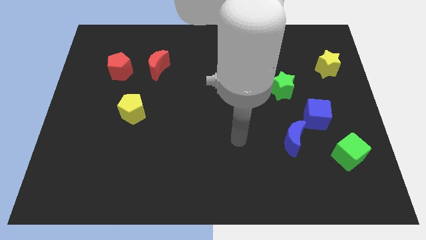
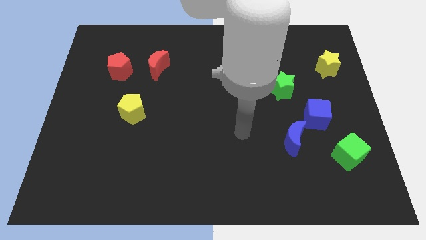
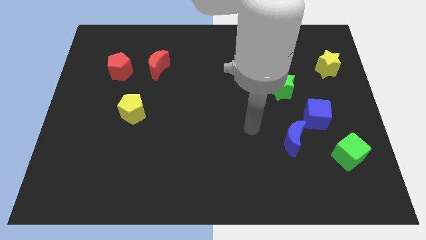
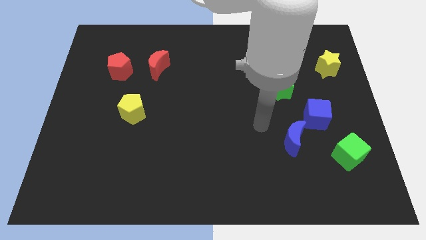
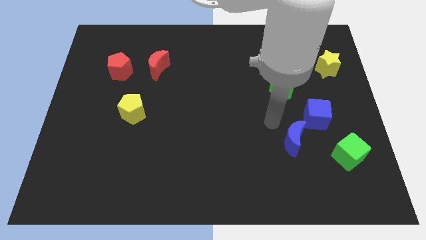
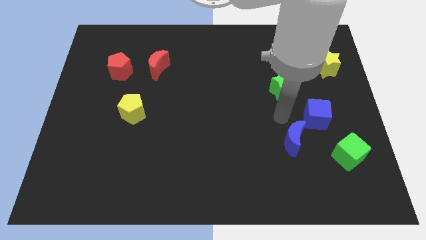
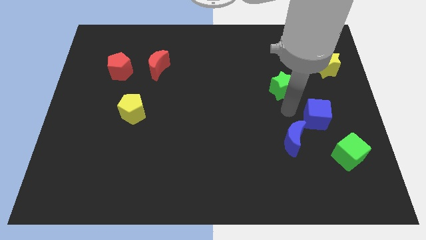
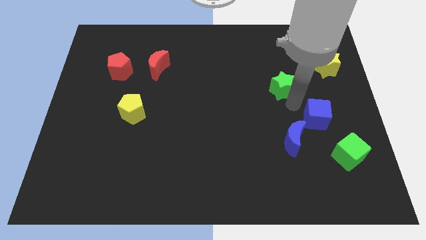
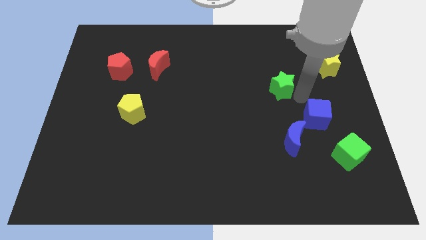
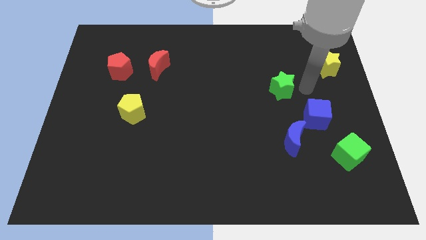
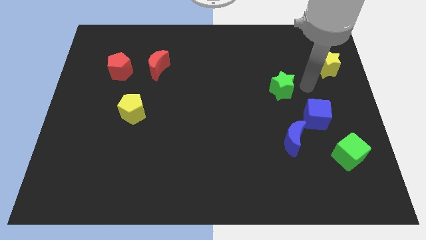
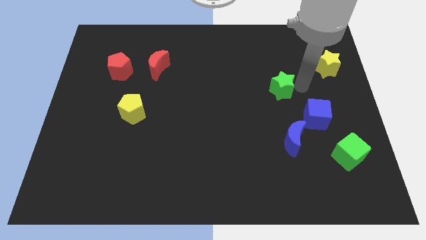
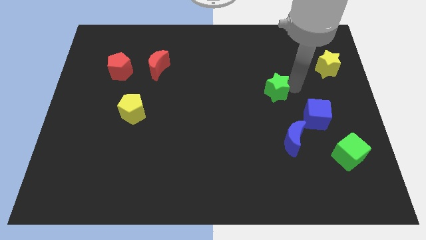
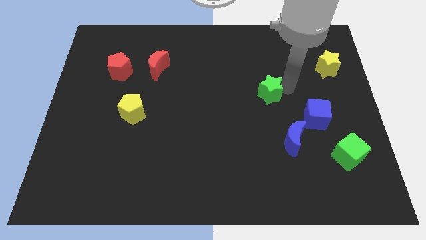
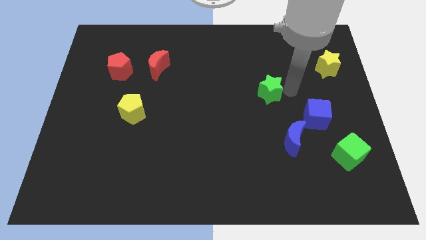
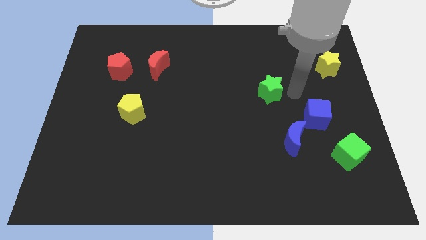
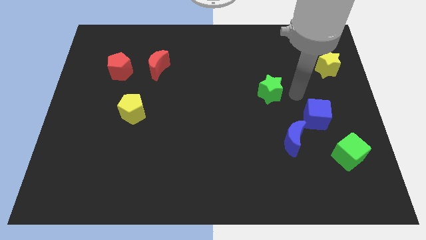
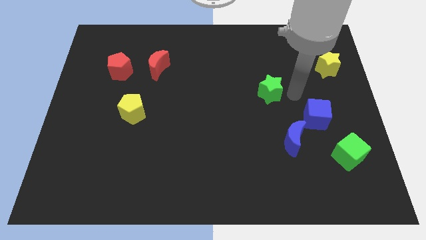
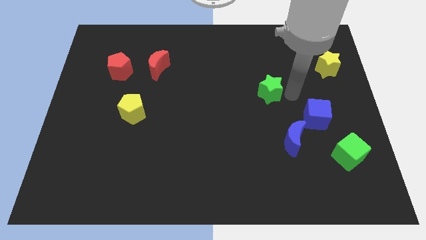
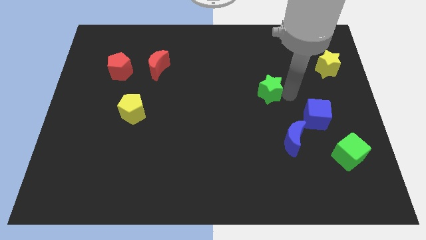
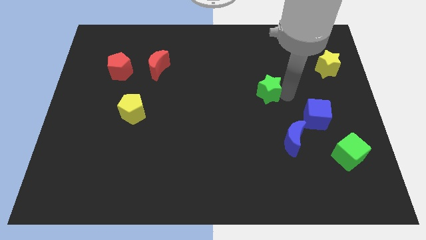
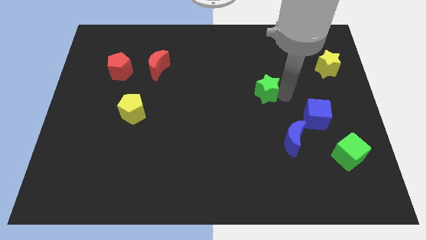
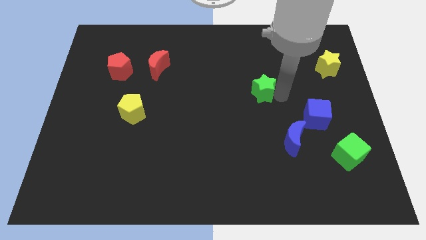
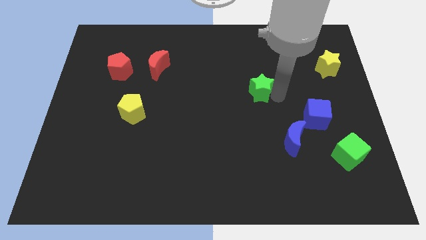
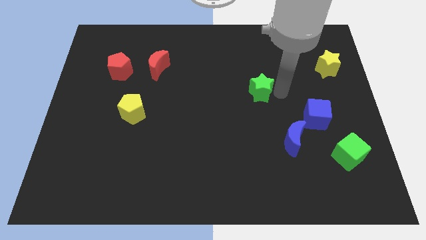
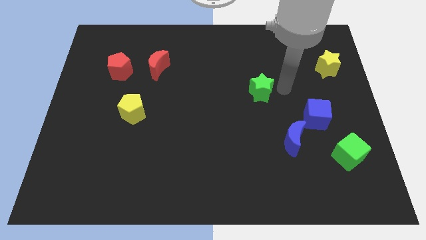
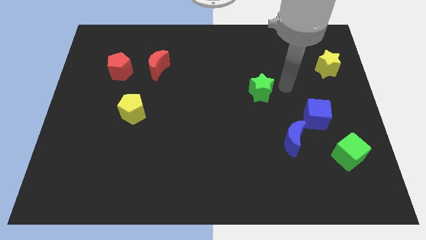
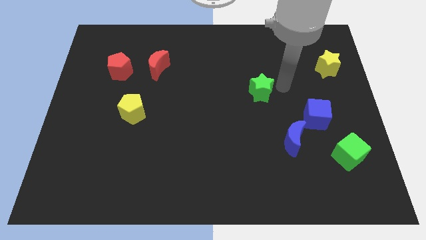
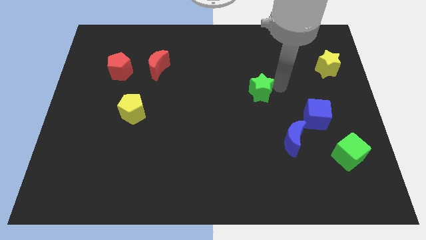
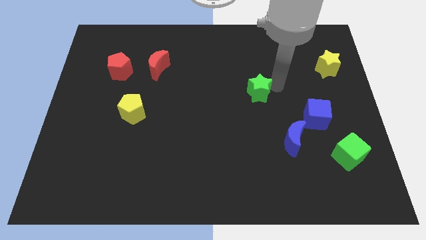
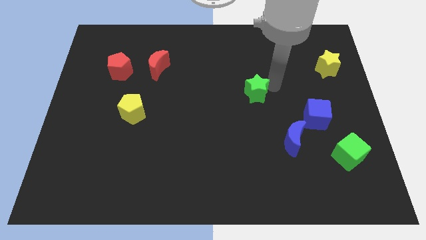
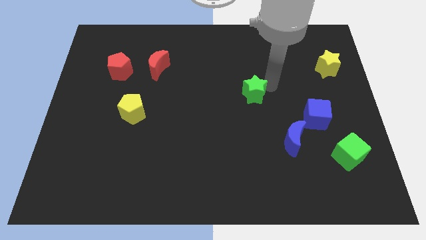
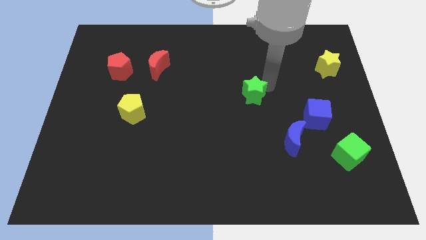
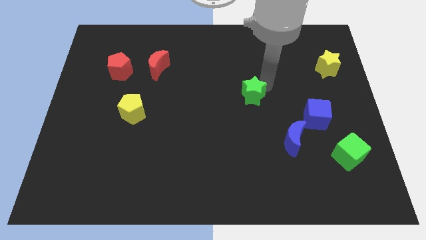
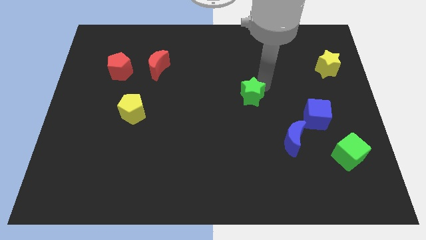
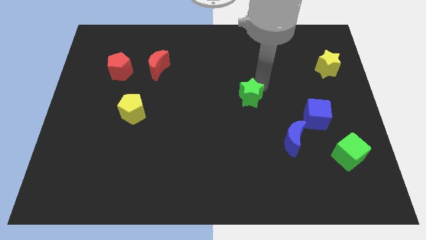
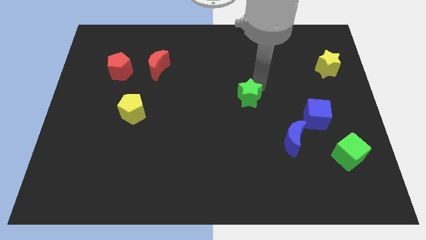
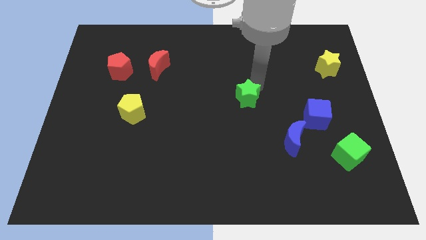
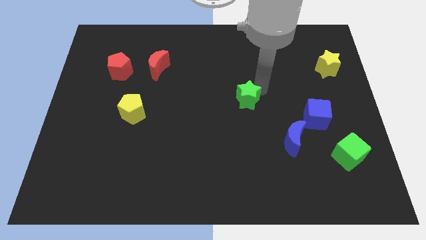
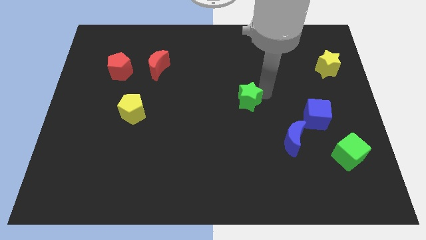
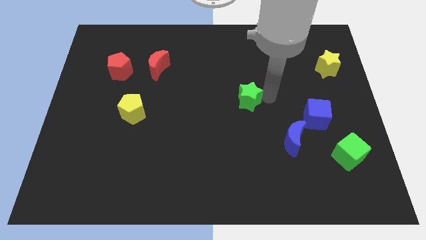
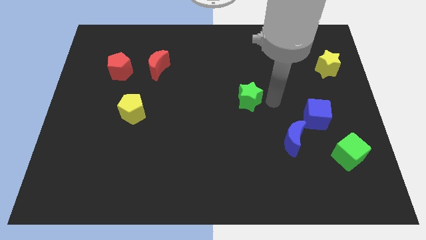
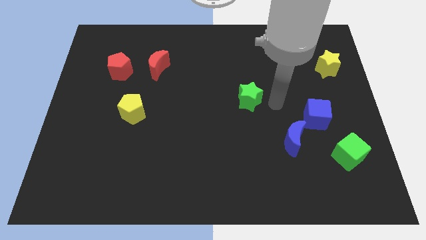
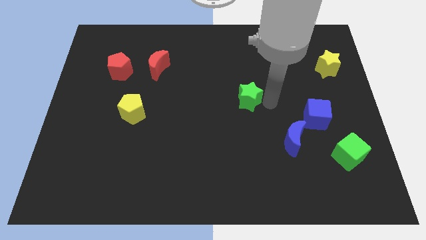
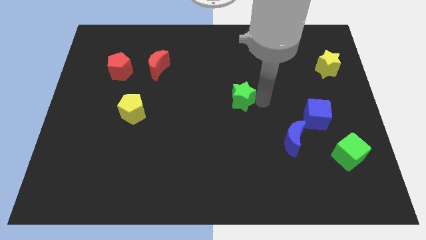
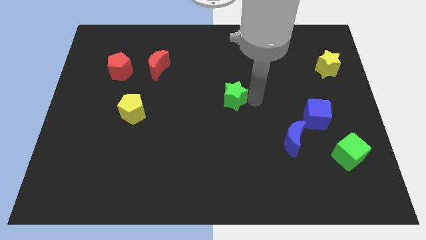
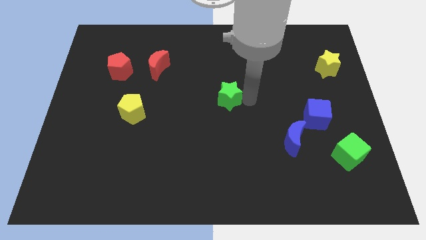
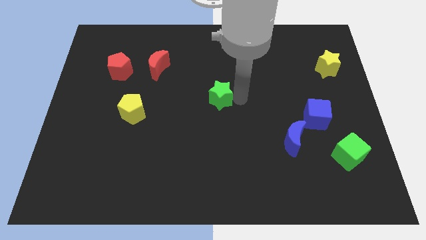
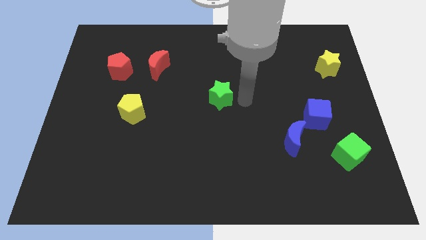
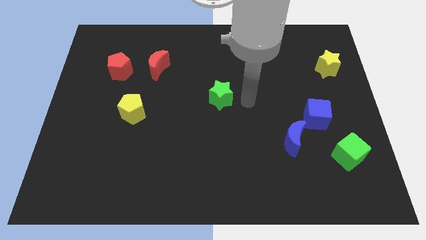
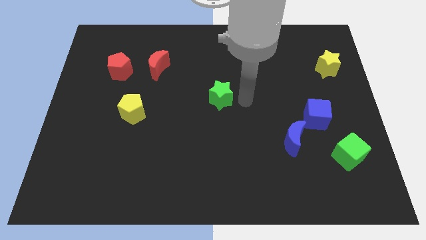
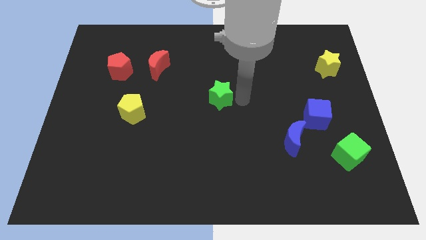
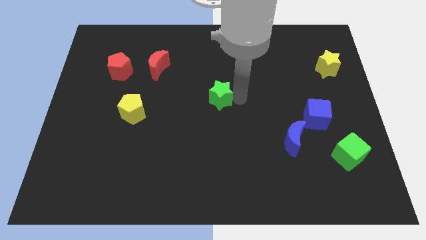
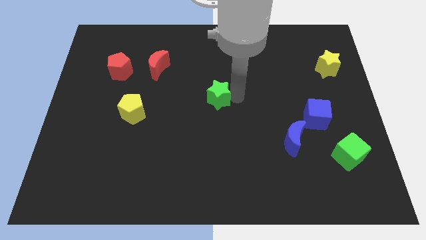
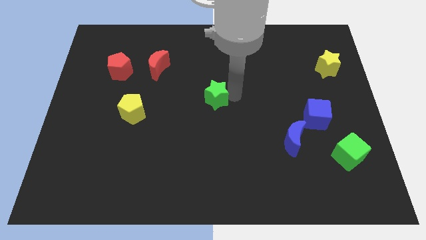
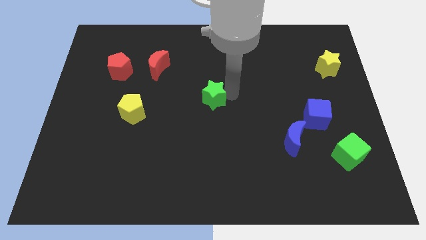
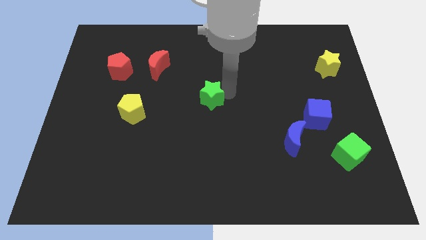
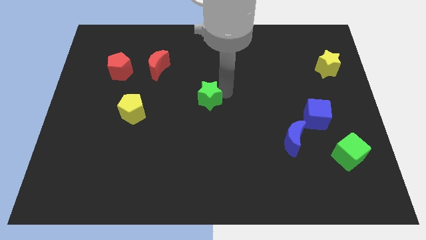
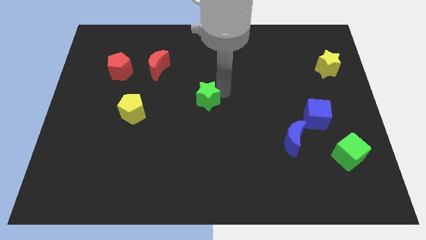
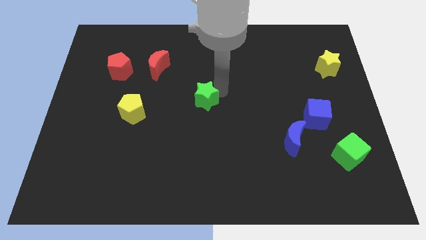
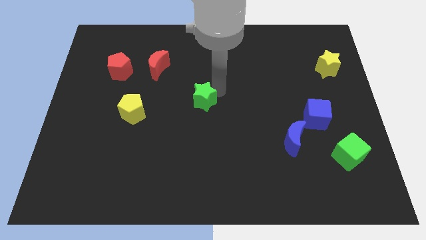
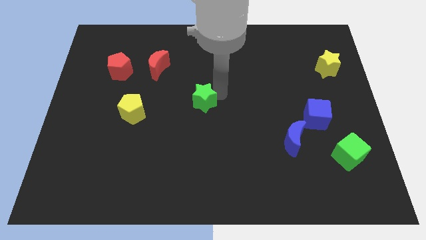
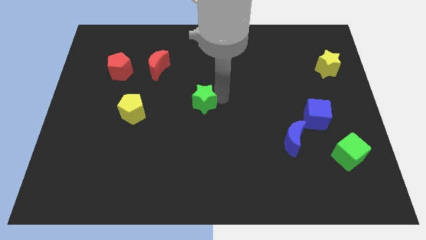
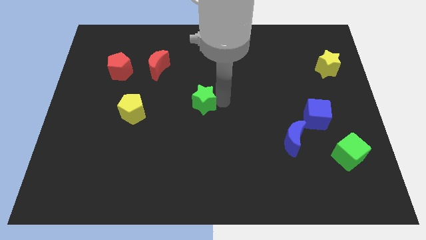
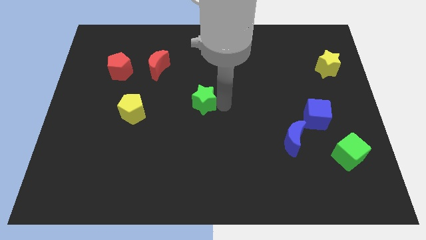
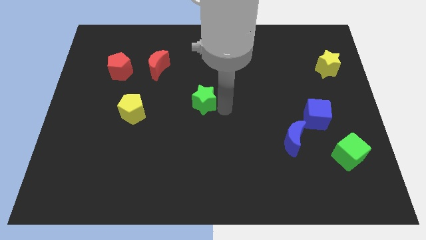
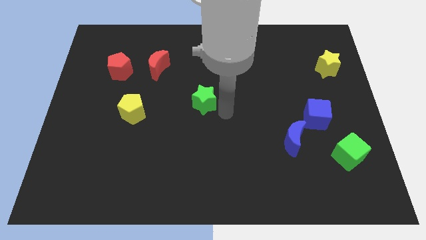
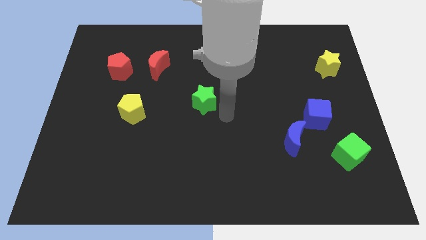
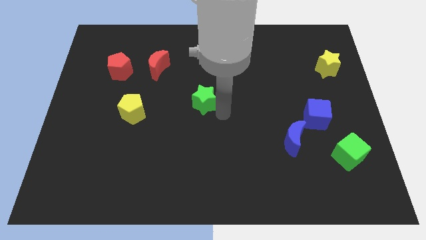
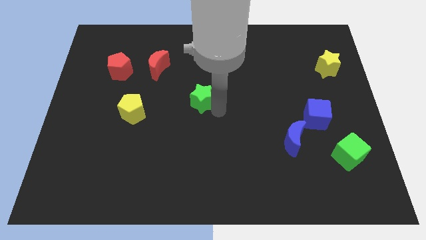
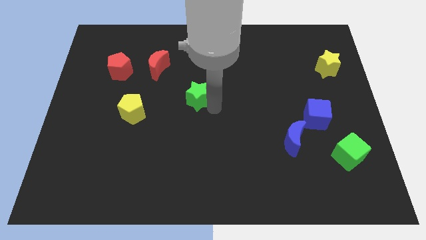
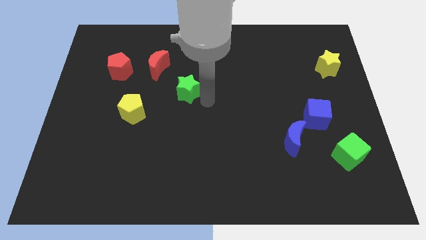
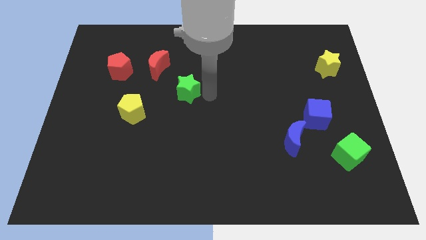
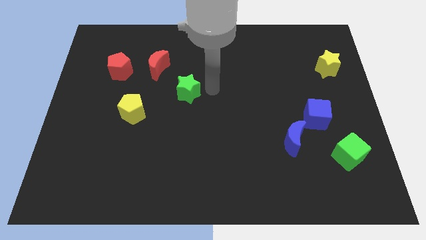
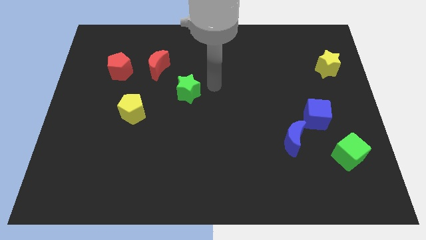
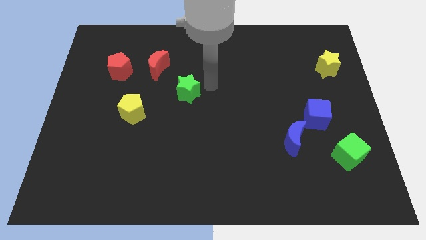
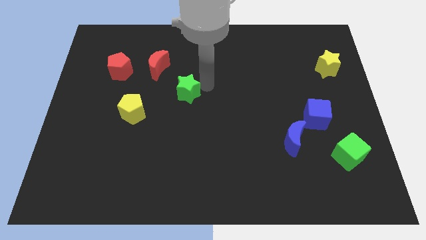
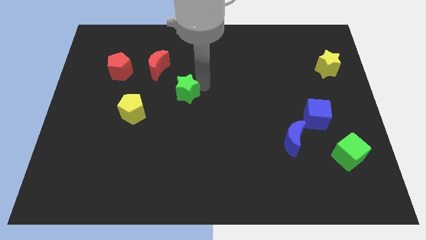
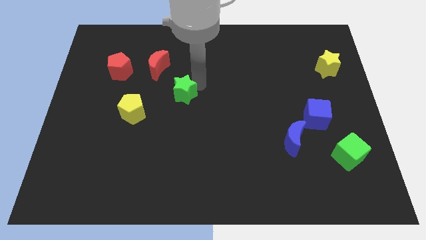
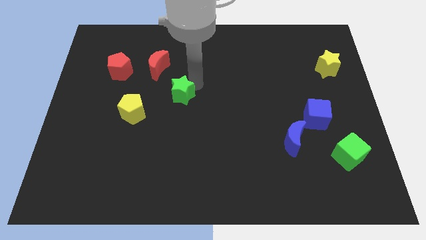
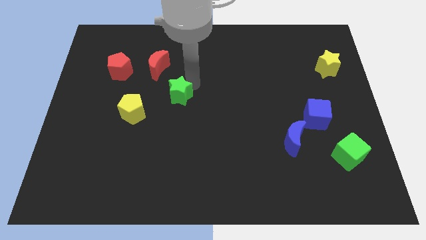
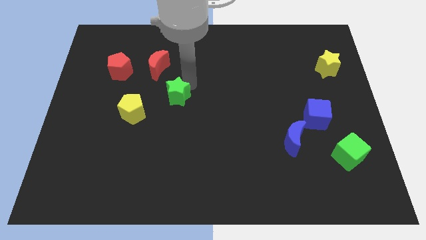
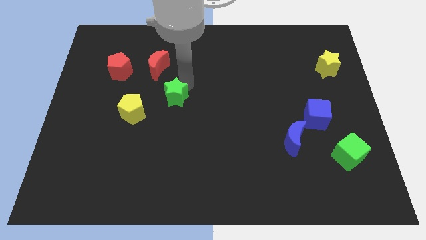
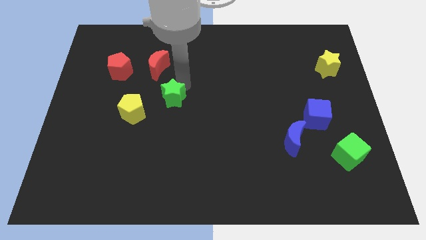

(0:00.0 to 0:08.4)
put the green star below the red moon
